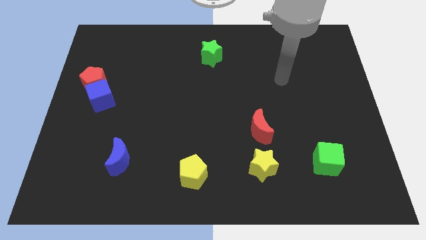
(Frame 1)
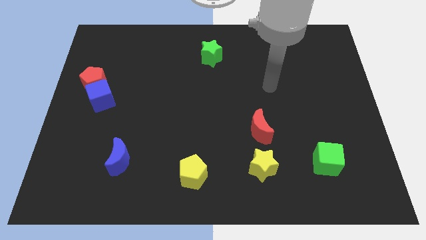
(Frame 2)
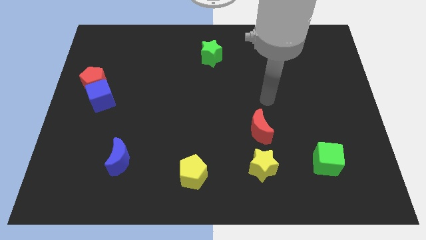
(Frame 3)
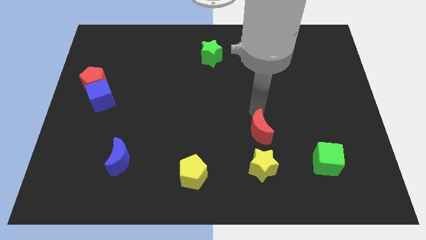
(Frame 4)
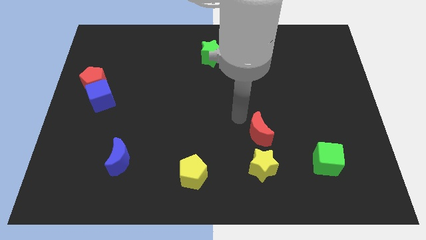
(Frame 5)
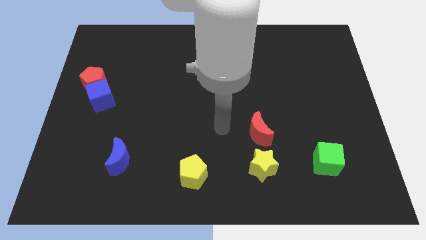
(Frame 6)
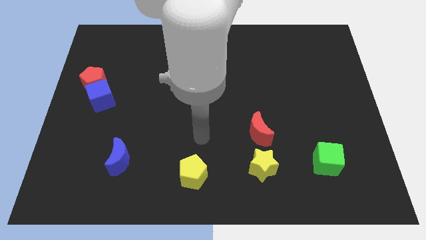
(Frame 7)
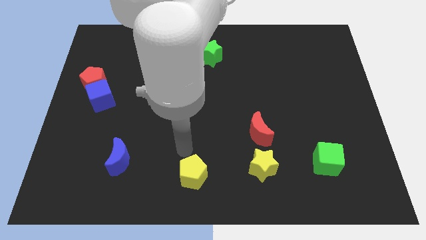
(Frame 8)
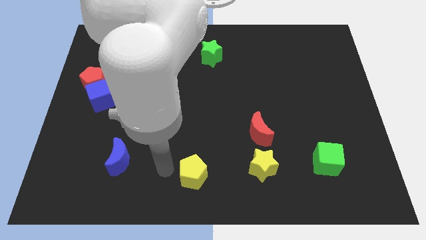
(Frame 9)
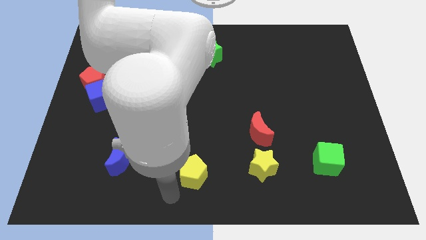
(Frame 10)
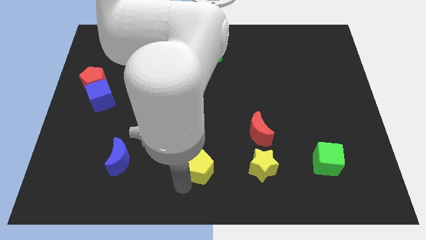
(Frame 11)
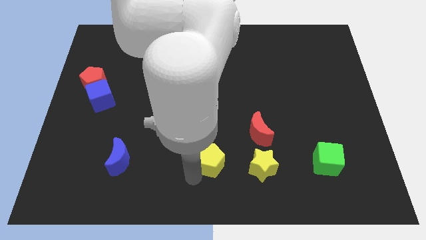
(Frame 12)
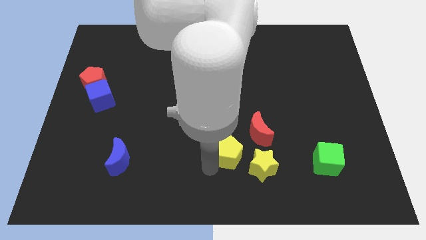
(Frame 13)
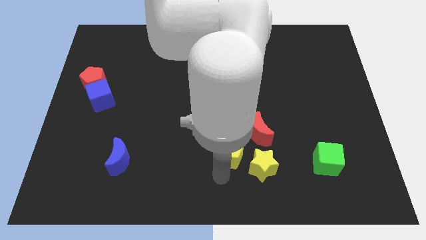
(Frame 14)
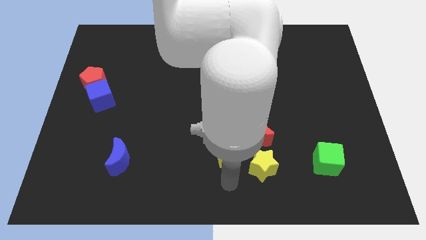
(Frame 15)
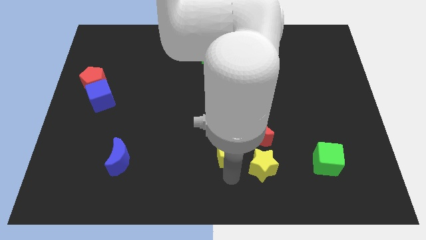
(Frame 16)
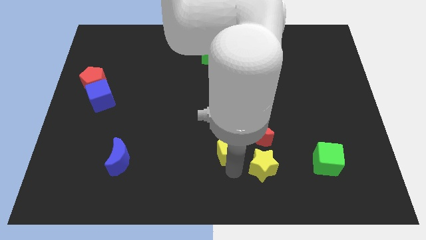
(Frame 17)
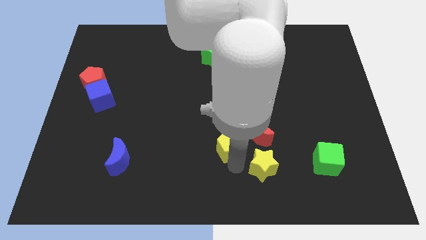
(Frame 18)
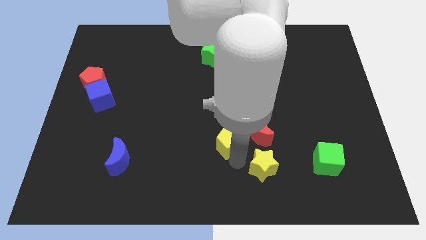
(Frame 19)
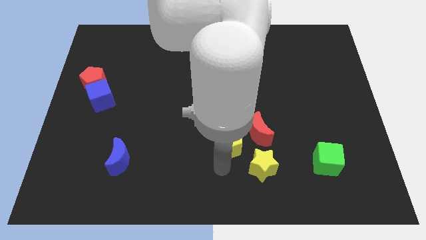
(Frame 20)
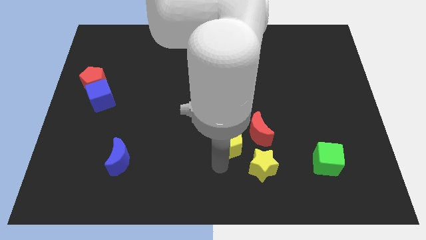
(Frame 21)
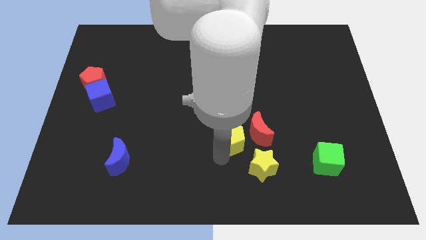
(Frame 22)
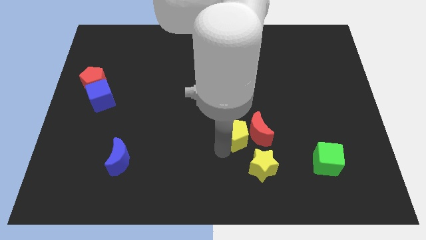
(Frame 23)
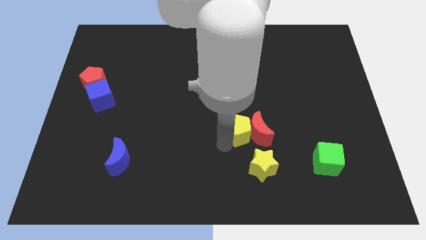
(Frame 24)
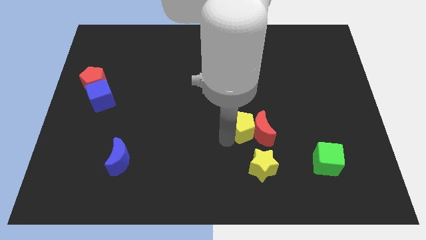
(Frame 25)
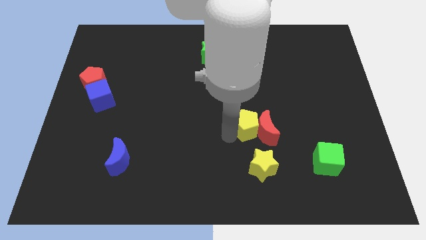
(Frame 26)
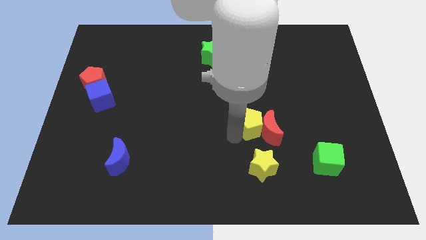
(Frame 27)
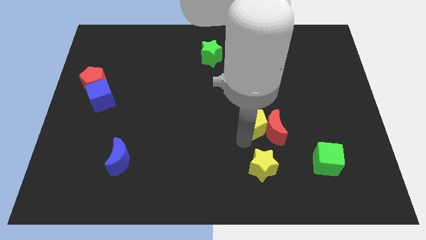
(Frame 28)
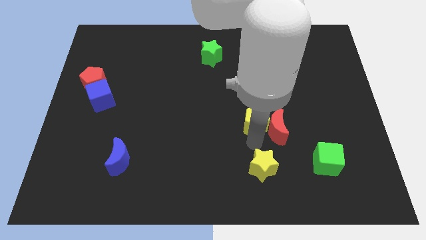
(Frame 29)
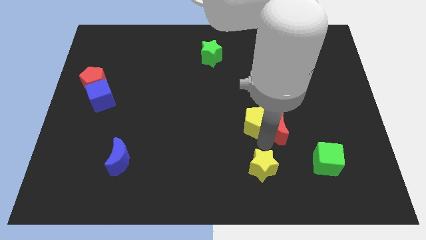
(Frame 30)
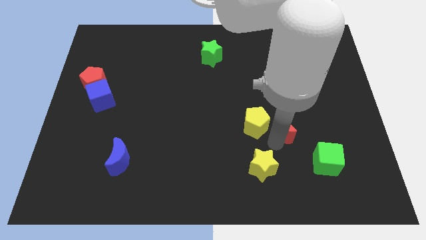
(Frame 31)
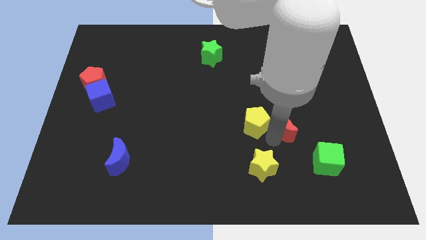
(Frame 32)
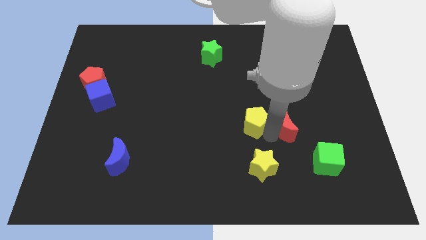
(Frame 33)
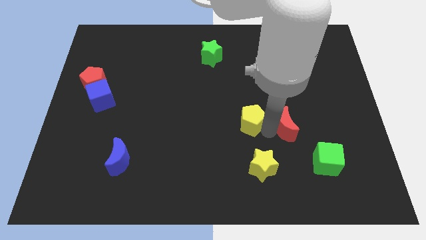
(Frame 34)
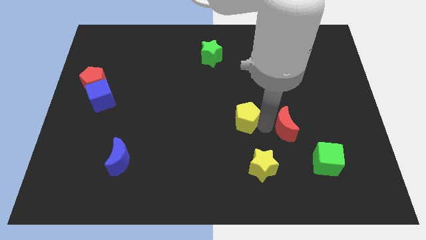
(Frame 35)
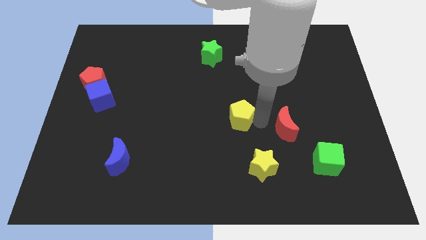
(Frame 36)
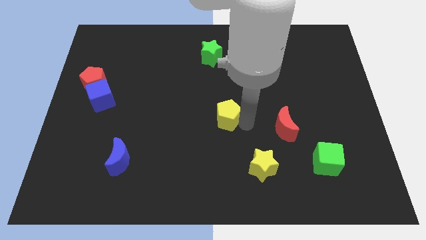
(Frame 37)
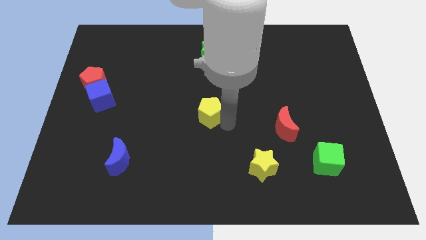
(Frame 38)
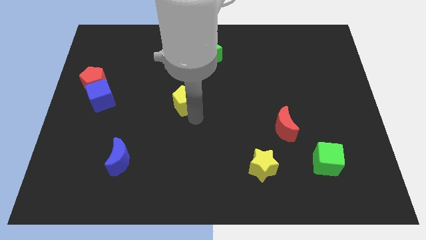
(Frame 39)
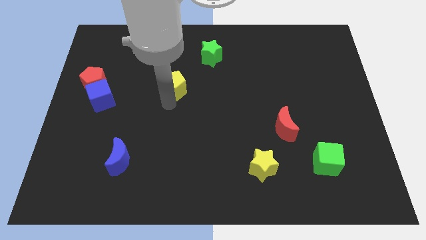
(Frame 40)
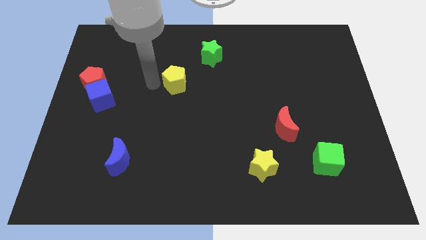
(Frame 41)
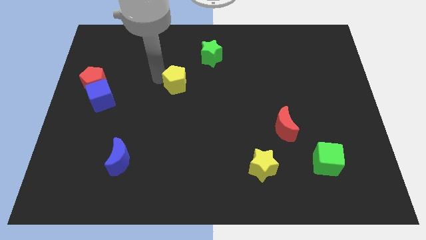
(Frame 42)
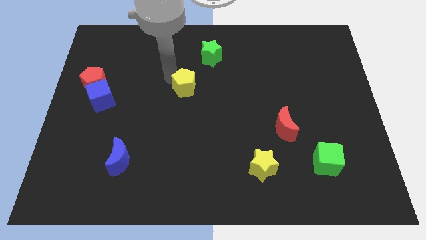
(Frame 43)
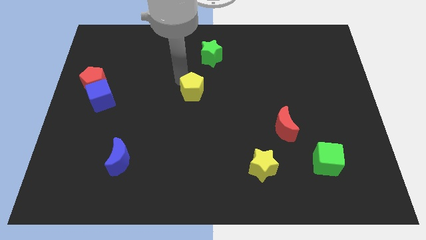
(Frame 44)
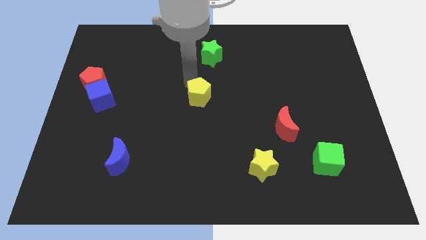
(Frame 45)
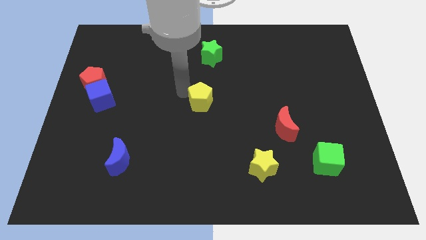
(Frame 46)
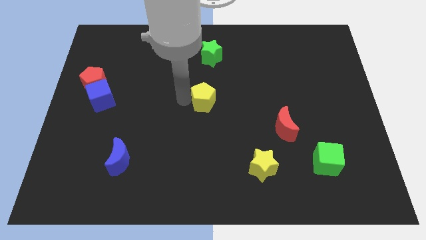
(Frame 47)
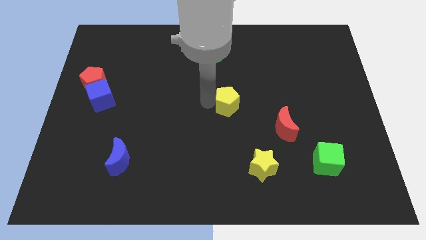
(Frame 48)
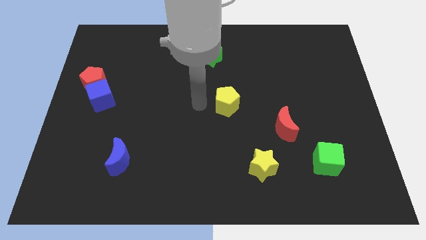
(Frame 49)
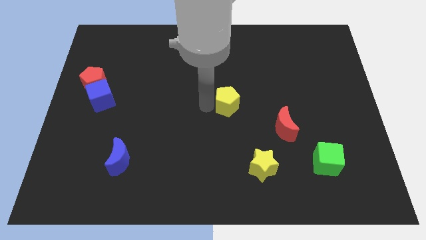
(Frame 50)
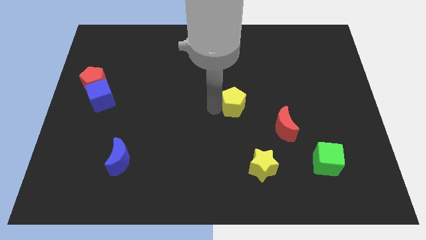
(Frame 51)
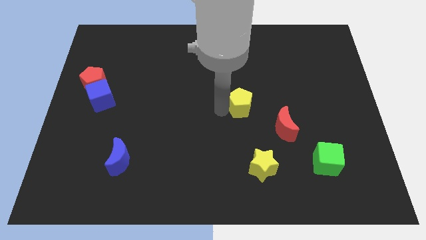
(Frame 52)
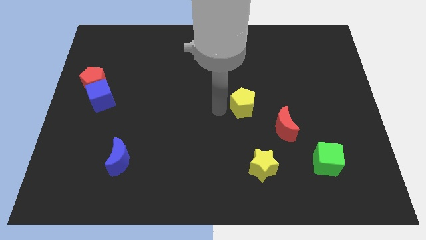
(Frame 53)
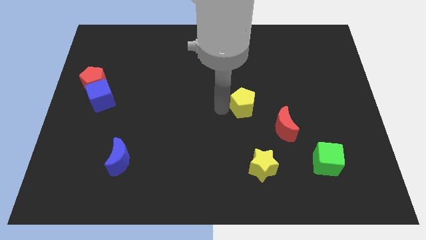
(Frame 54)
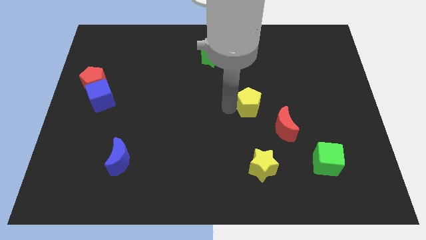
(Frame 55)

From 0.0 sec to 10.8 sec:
move the yellow pentagon upwards and then right

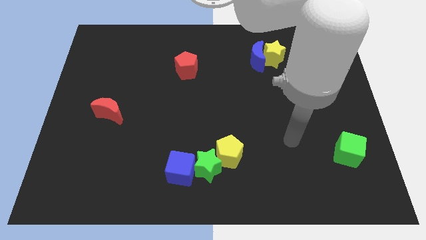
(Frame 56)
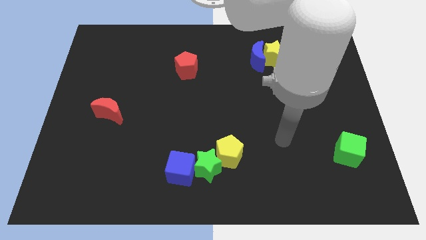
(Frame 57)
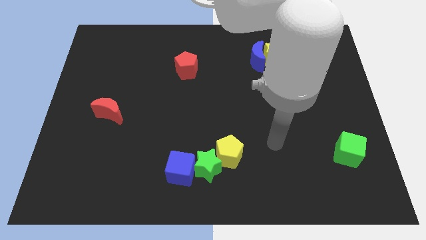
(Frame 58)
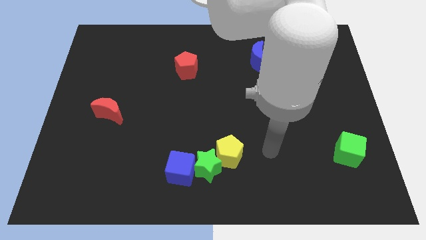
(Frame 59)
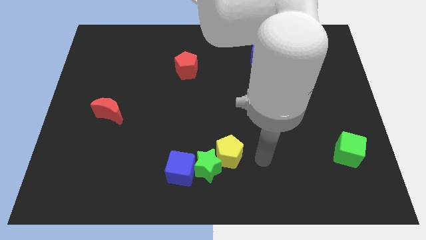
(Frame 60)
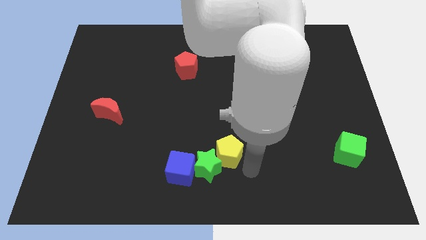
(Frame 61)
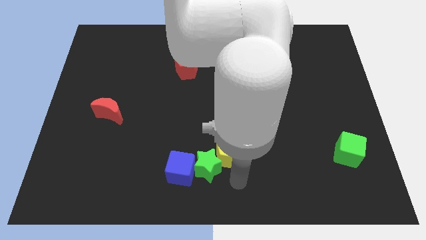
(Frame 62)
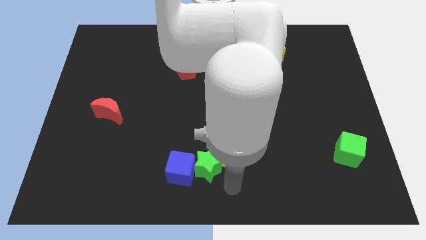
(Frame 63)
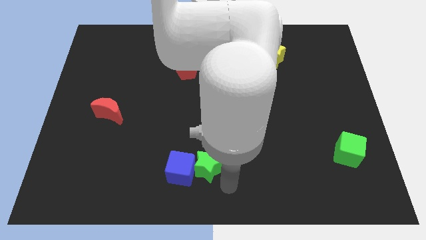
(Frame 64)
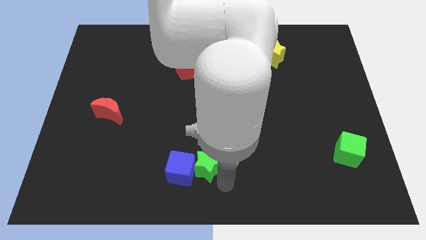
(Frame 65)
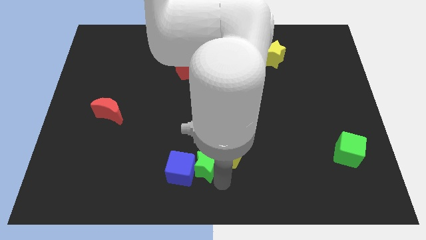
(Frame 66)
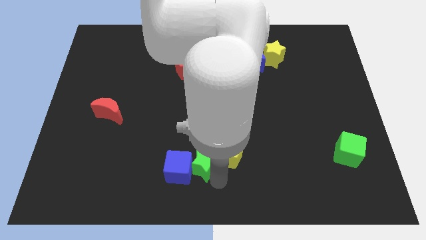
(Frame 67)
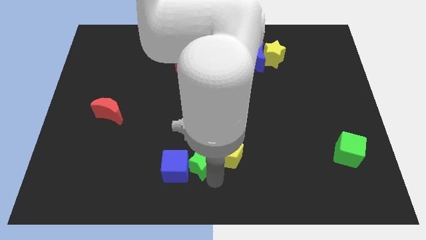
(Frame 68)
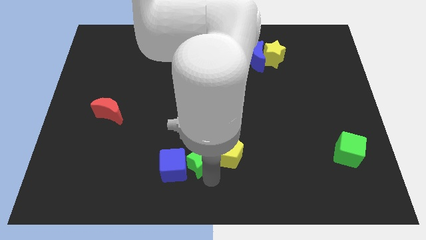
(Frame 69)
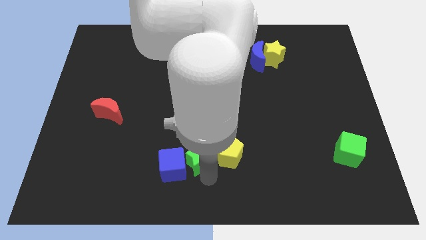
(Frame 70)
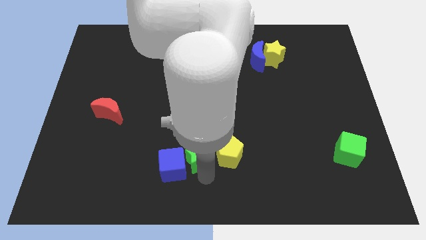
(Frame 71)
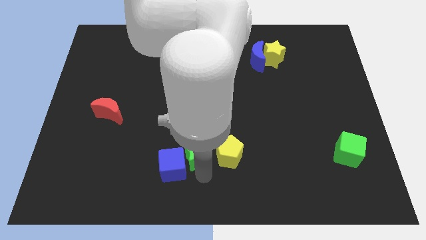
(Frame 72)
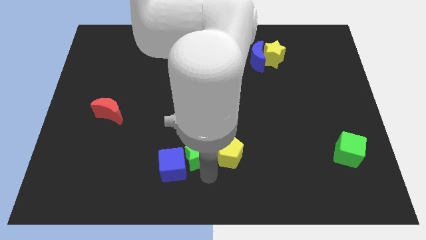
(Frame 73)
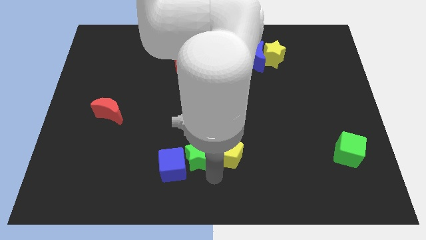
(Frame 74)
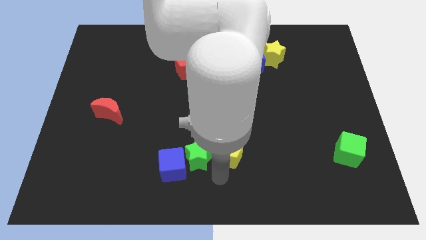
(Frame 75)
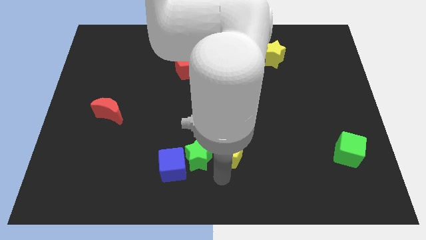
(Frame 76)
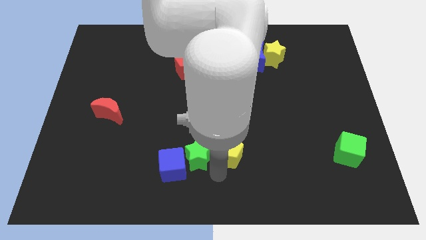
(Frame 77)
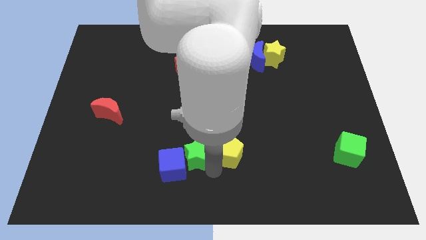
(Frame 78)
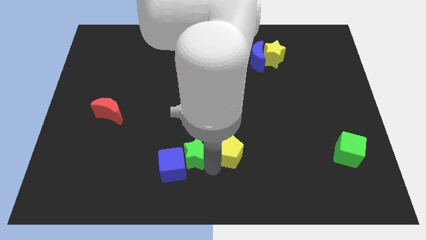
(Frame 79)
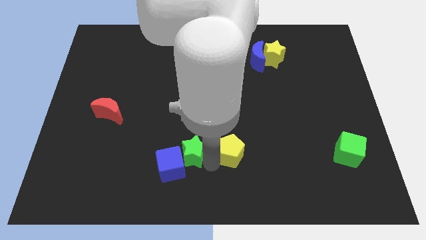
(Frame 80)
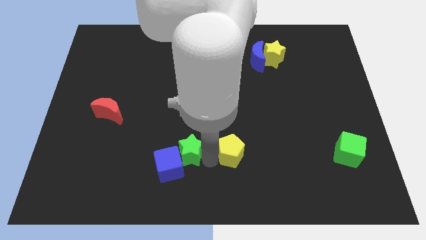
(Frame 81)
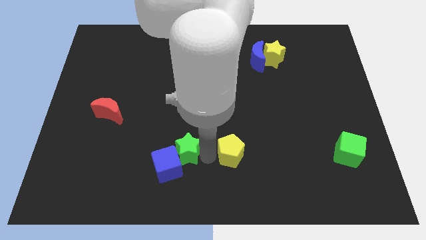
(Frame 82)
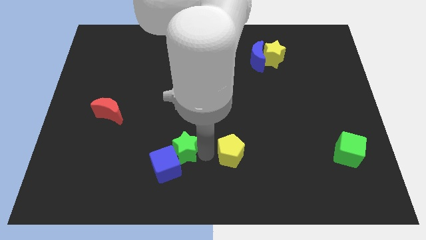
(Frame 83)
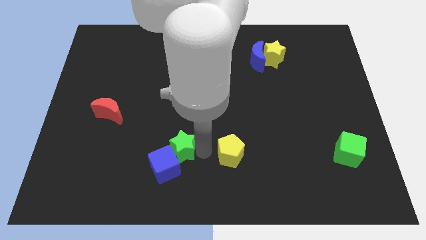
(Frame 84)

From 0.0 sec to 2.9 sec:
move the green star diagonally up and to the left somewhat
